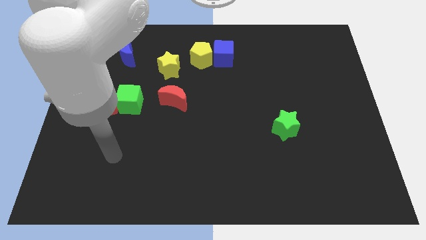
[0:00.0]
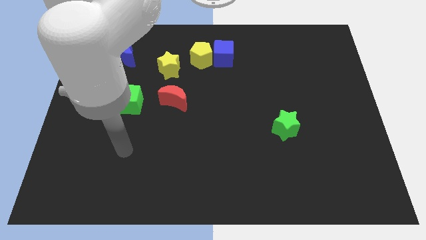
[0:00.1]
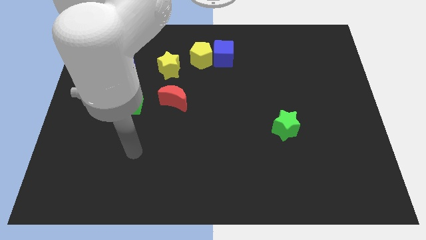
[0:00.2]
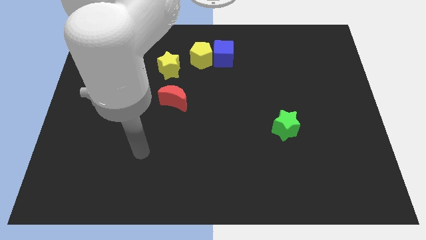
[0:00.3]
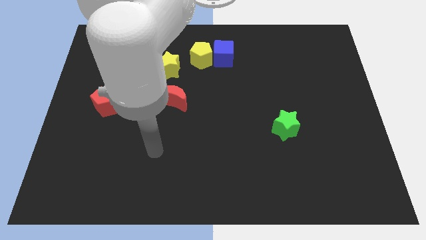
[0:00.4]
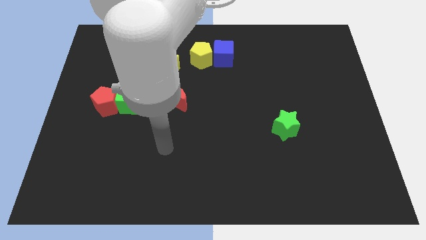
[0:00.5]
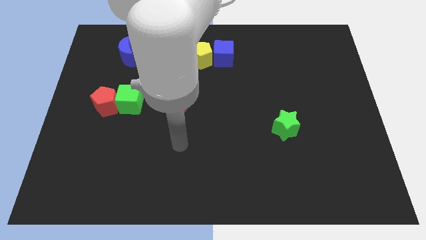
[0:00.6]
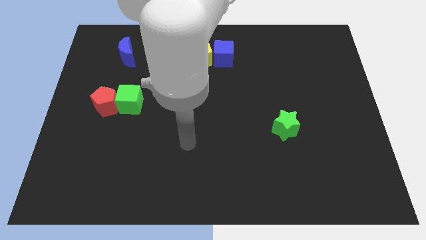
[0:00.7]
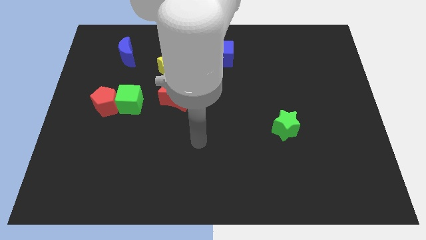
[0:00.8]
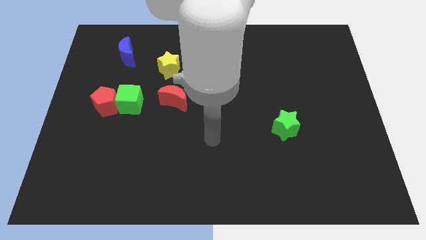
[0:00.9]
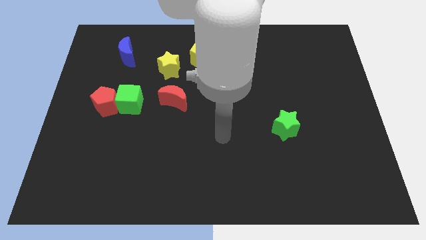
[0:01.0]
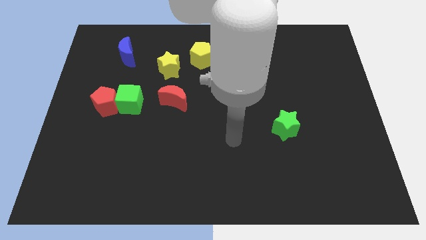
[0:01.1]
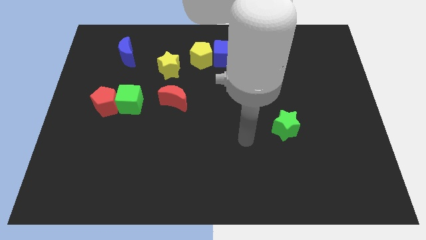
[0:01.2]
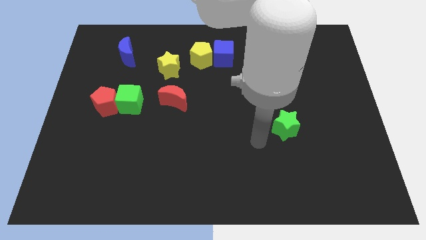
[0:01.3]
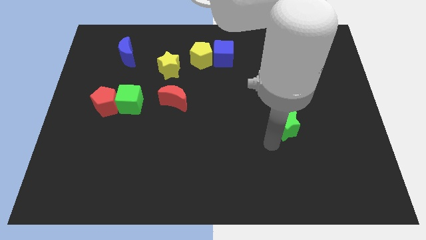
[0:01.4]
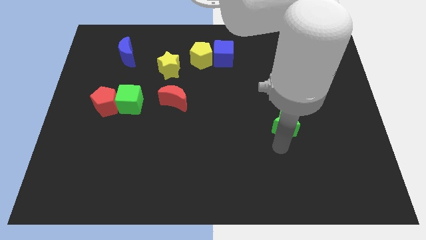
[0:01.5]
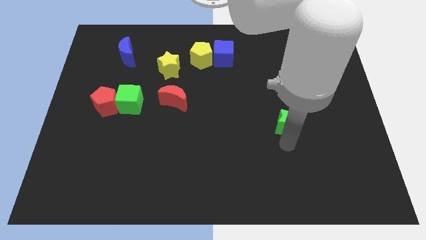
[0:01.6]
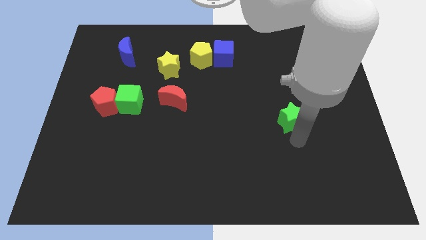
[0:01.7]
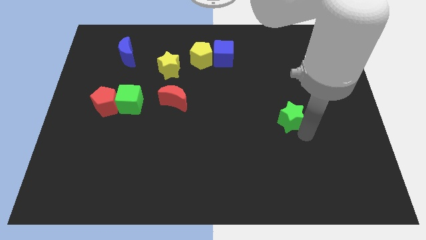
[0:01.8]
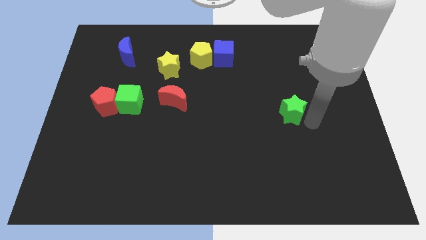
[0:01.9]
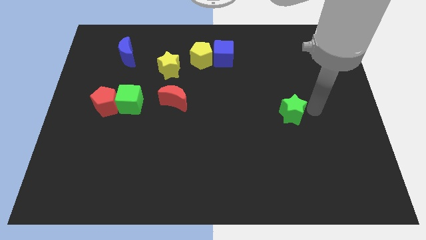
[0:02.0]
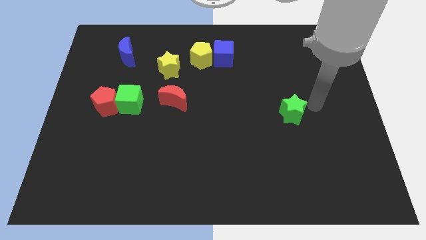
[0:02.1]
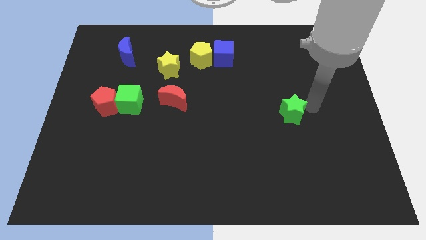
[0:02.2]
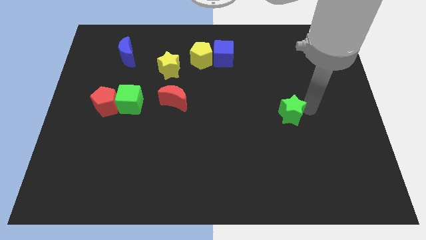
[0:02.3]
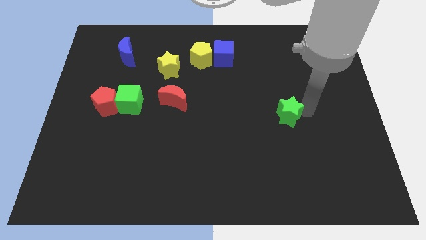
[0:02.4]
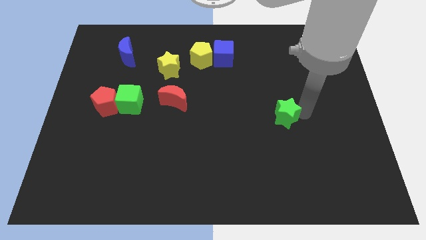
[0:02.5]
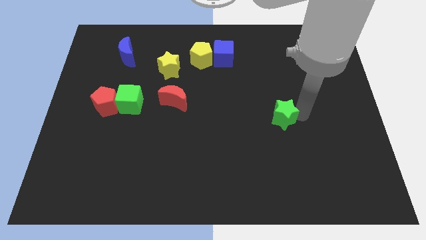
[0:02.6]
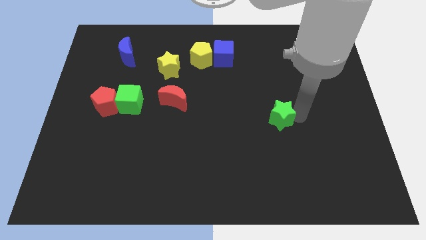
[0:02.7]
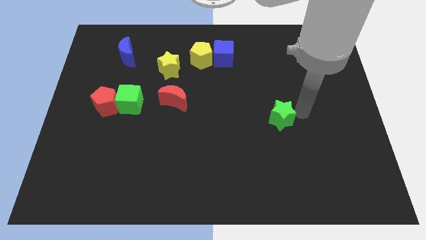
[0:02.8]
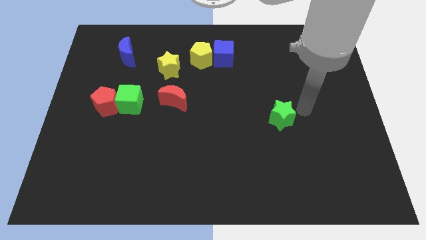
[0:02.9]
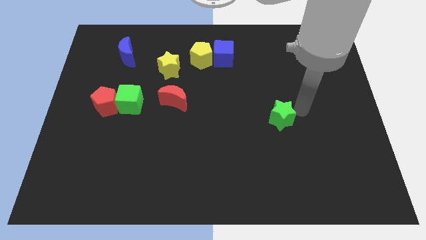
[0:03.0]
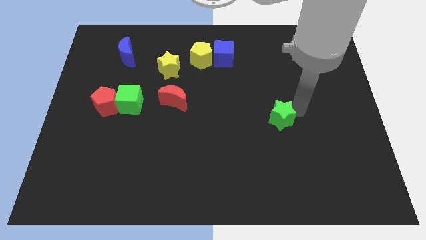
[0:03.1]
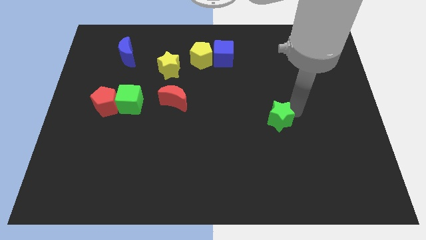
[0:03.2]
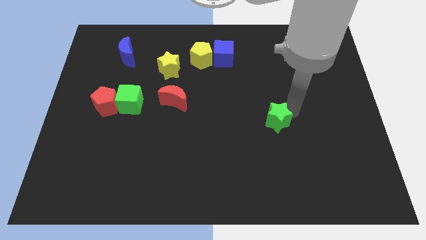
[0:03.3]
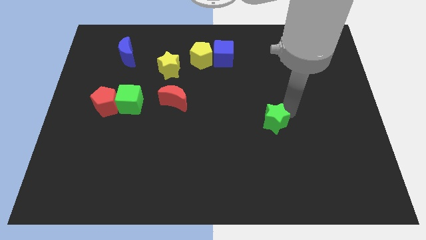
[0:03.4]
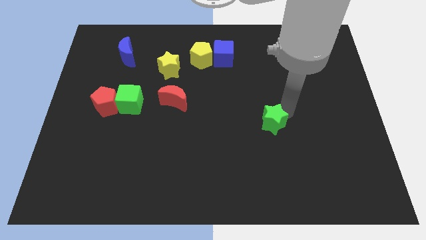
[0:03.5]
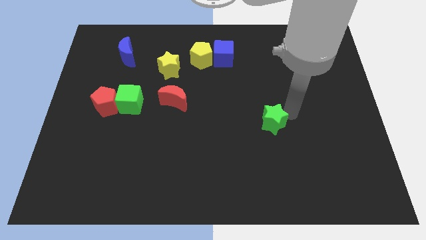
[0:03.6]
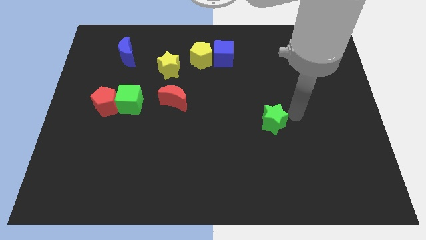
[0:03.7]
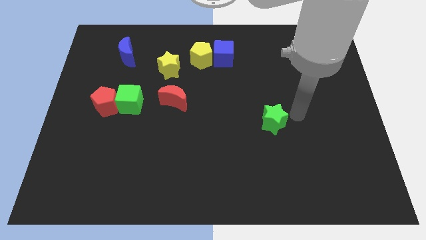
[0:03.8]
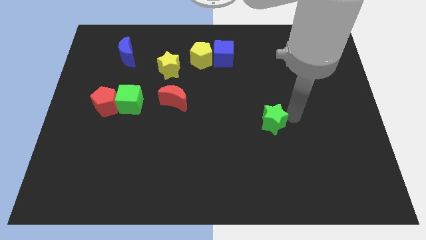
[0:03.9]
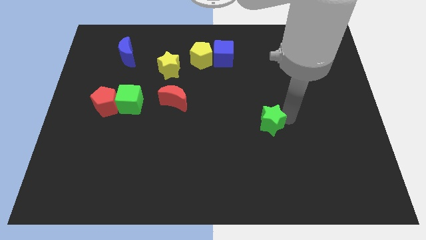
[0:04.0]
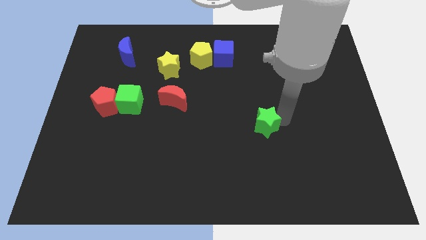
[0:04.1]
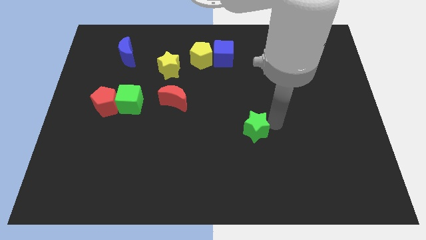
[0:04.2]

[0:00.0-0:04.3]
push the green star left a little bit

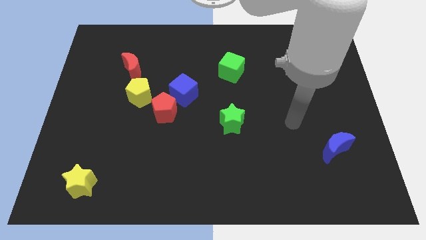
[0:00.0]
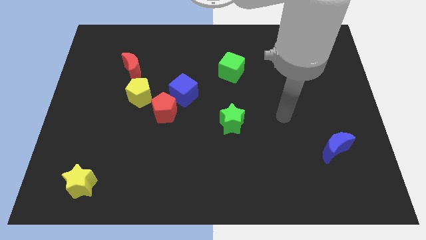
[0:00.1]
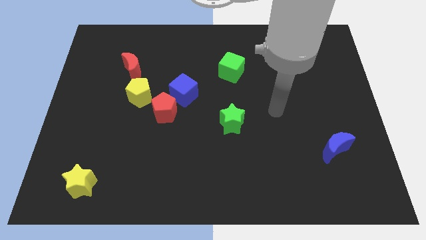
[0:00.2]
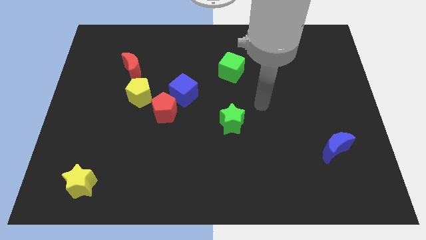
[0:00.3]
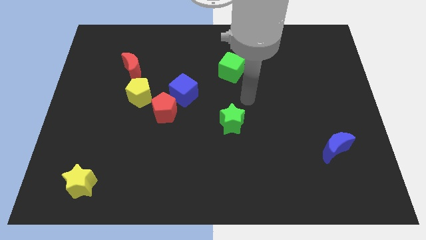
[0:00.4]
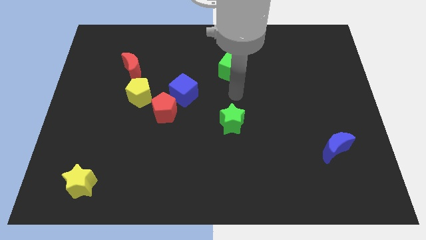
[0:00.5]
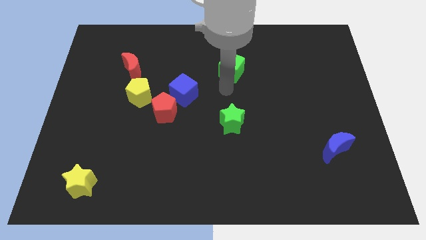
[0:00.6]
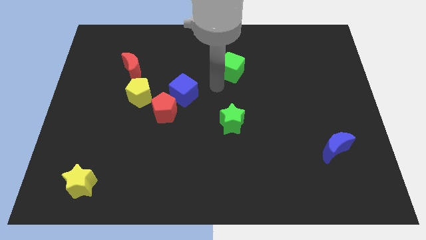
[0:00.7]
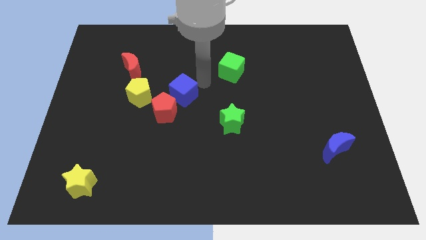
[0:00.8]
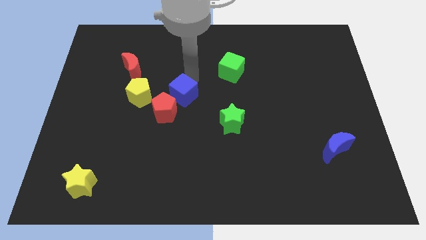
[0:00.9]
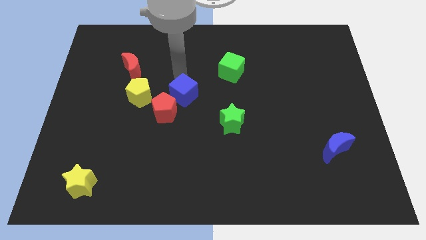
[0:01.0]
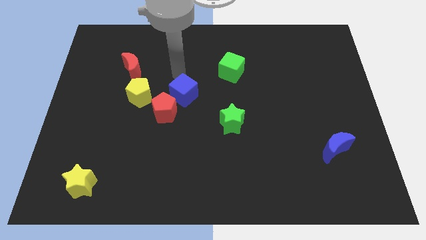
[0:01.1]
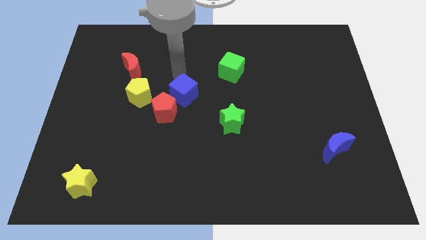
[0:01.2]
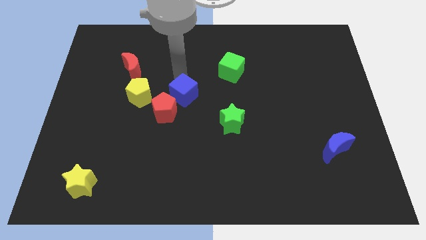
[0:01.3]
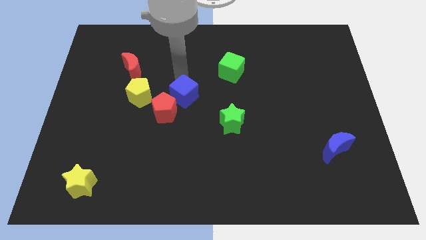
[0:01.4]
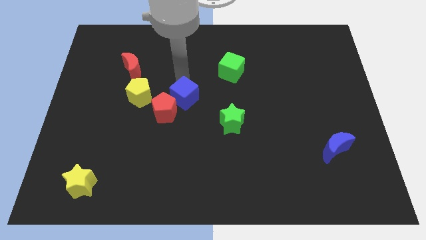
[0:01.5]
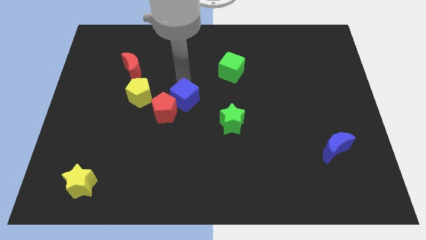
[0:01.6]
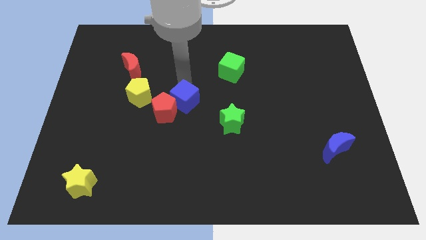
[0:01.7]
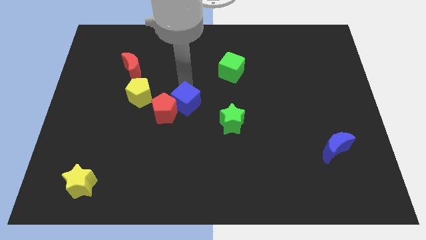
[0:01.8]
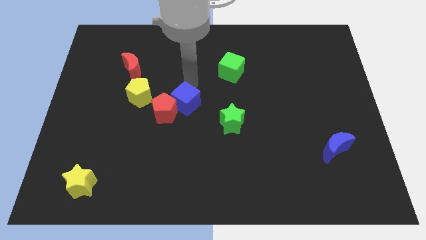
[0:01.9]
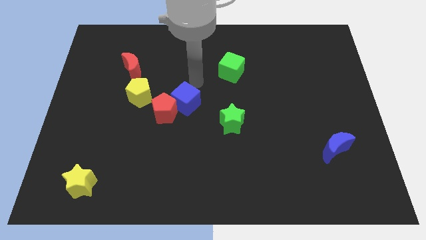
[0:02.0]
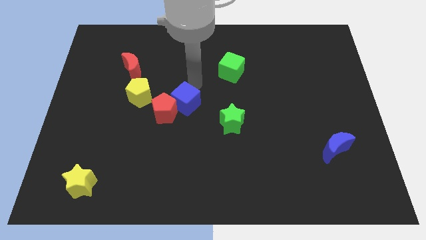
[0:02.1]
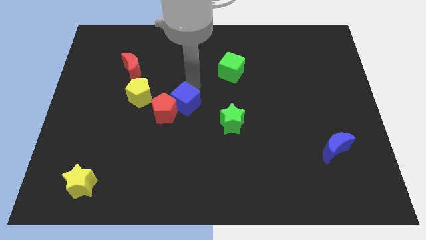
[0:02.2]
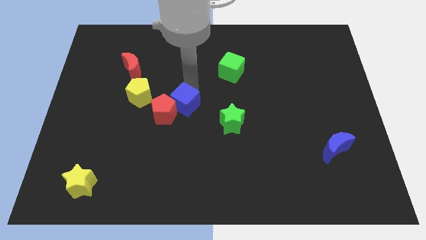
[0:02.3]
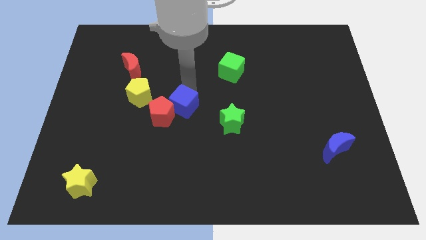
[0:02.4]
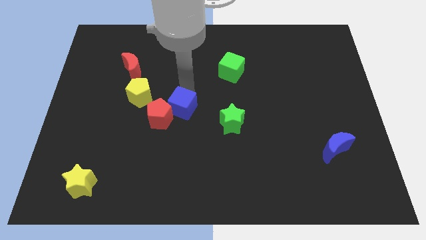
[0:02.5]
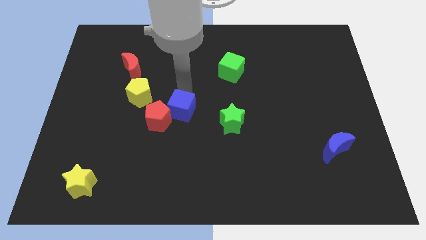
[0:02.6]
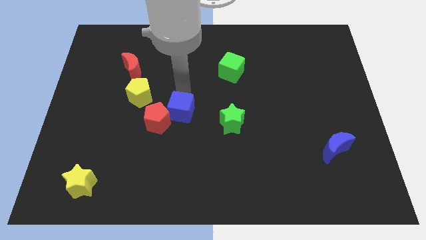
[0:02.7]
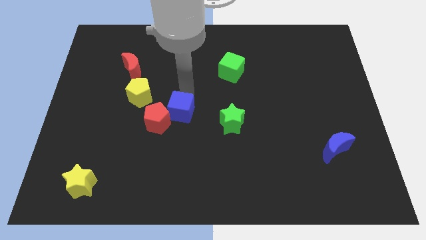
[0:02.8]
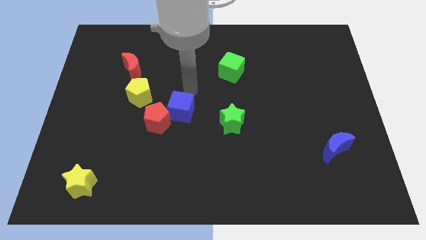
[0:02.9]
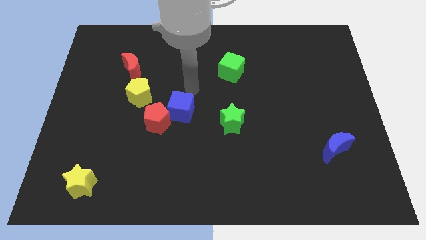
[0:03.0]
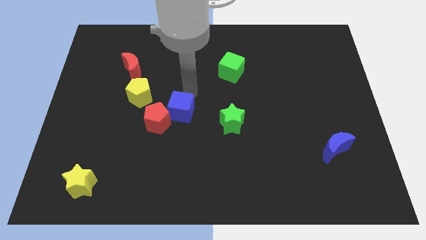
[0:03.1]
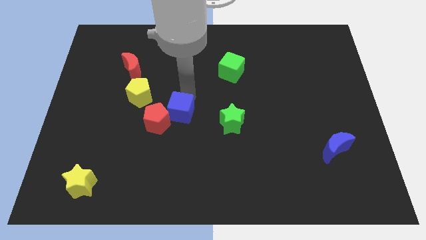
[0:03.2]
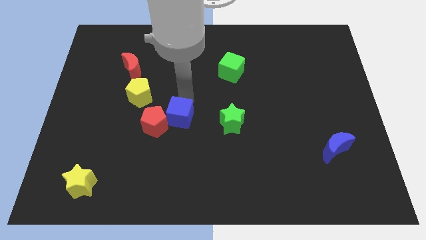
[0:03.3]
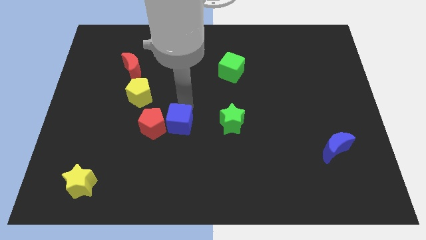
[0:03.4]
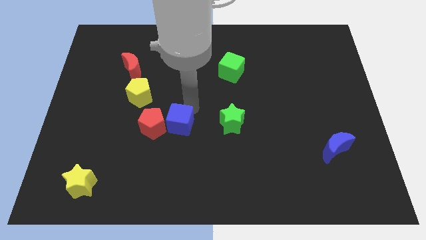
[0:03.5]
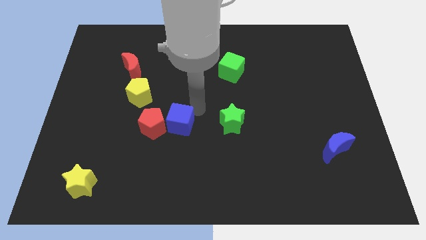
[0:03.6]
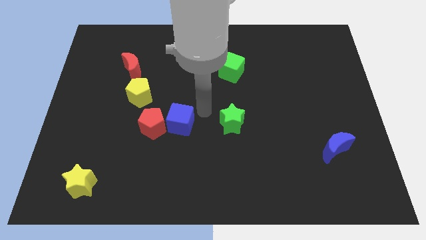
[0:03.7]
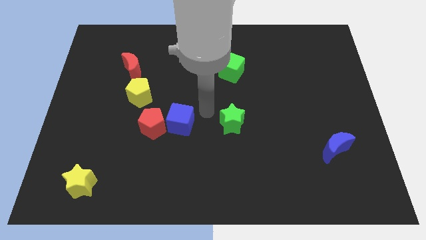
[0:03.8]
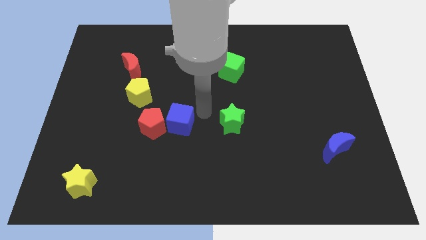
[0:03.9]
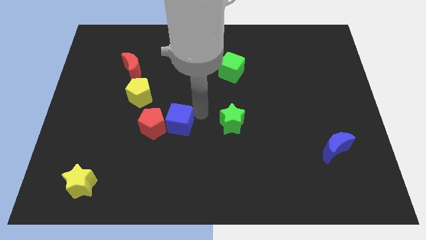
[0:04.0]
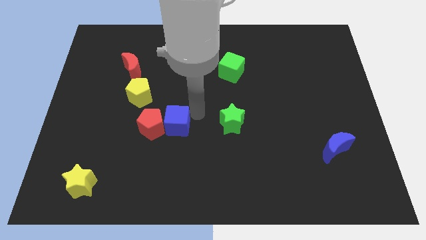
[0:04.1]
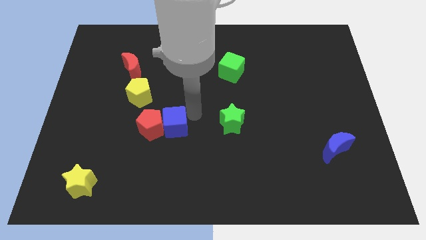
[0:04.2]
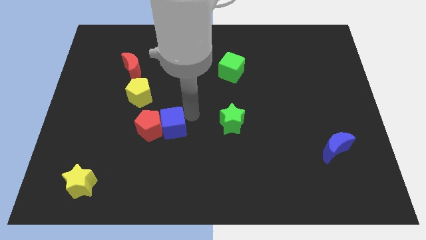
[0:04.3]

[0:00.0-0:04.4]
slide the blue cube down and to the left somewhat
